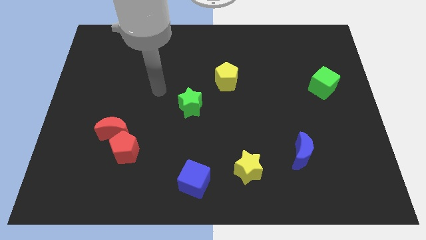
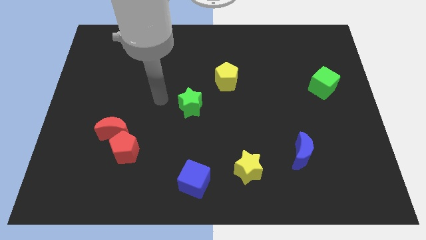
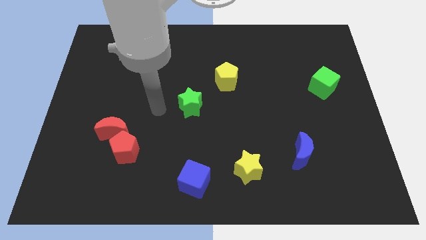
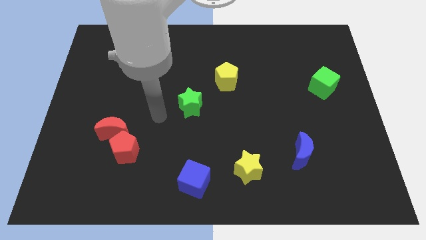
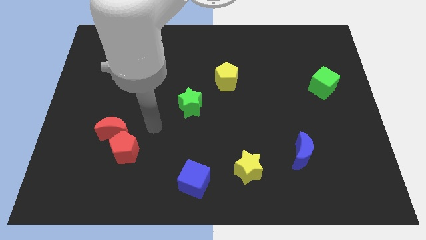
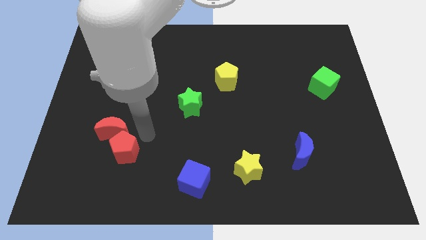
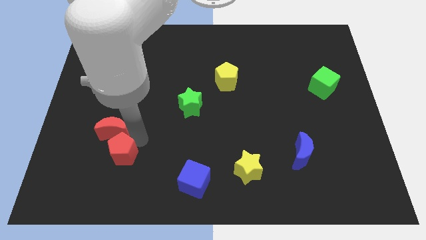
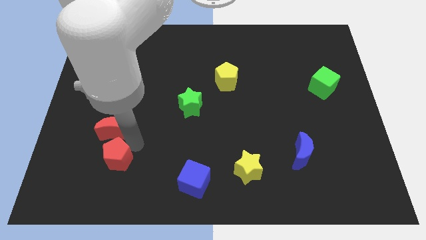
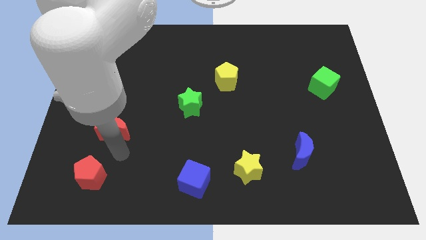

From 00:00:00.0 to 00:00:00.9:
separate the red moon from the red pentagon

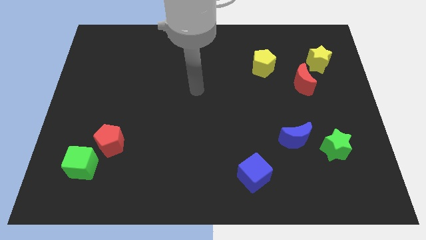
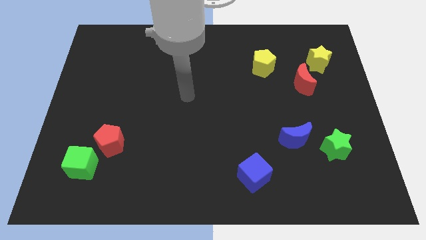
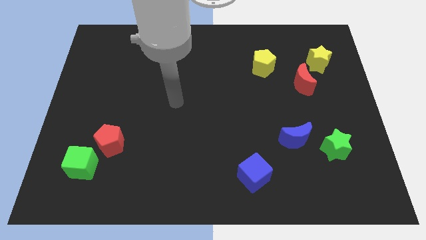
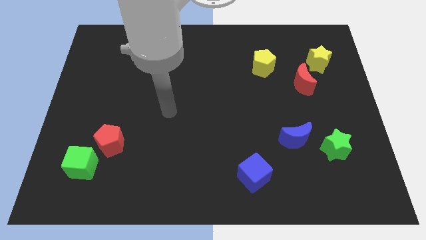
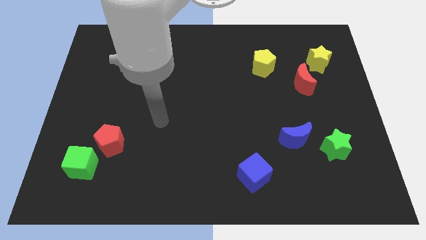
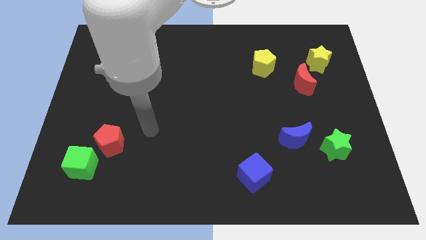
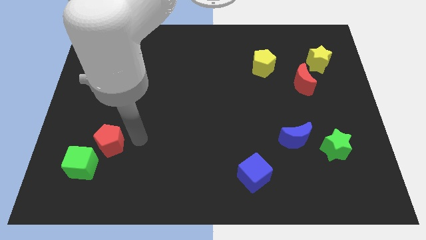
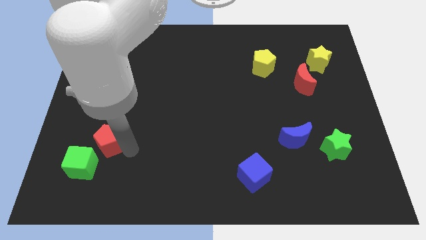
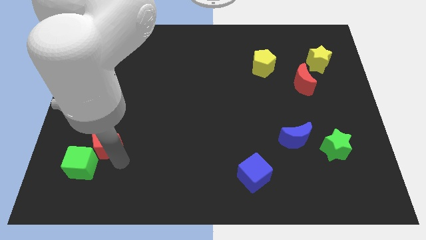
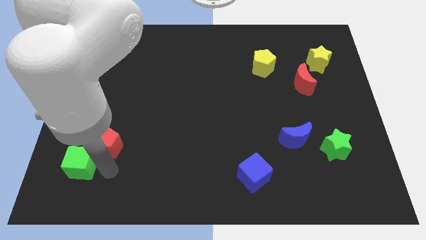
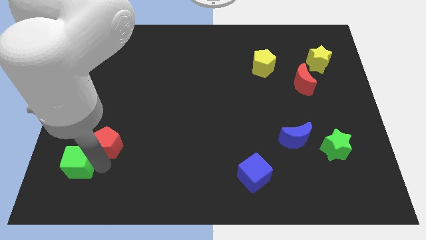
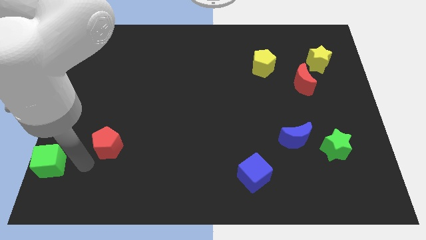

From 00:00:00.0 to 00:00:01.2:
separate the red pentagon from the green cube

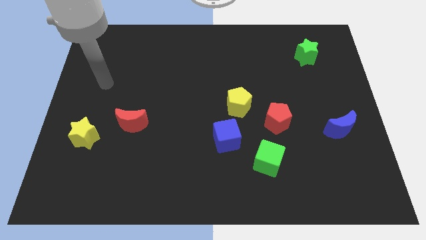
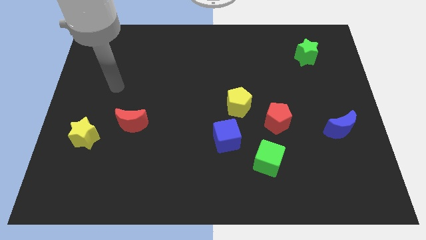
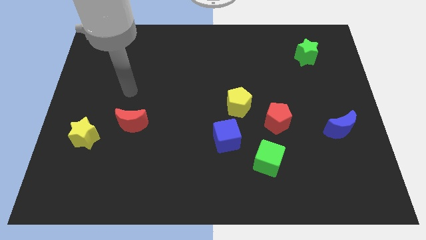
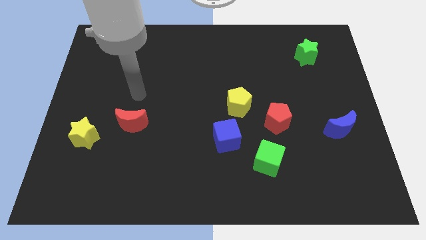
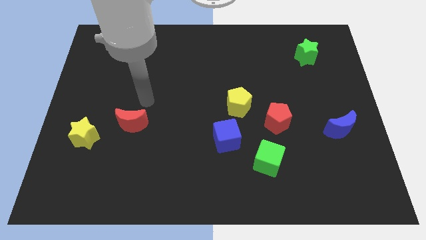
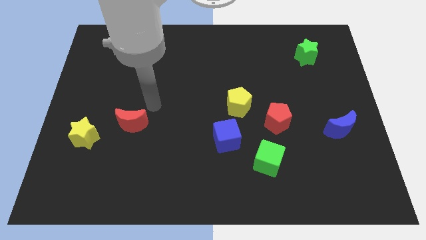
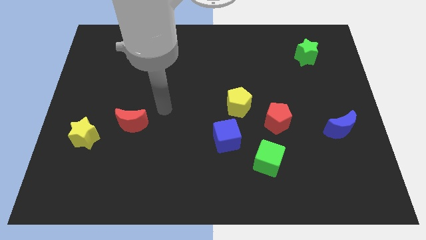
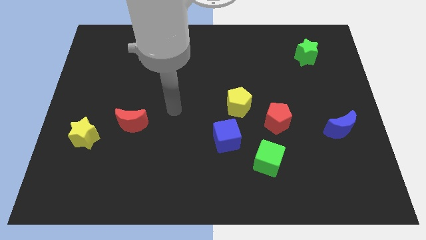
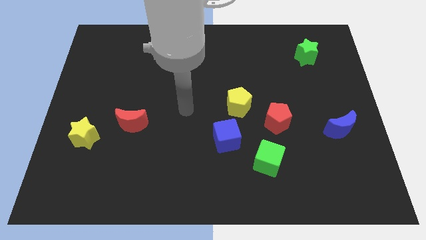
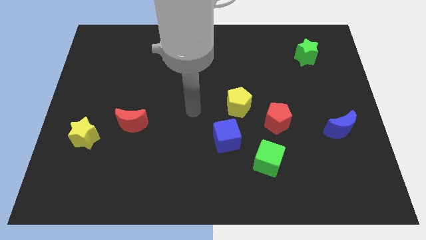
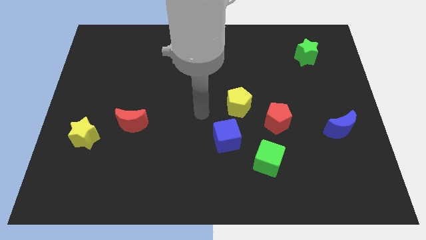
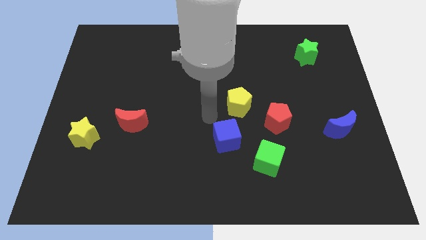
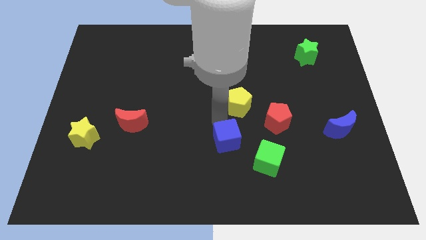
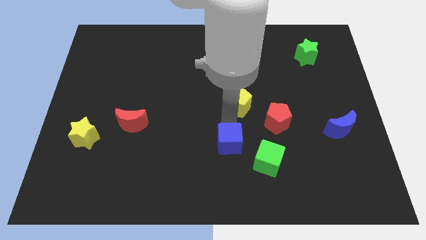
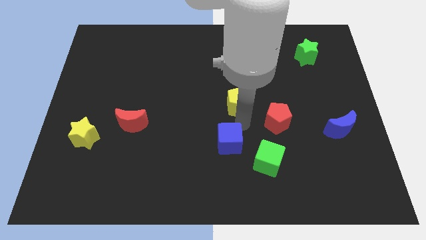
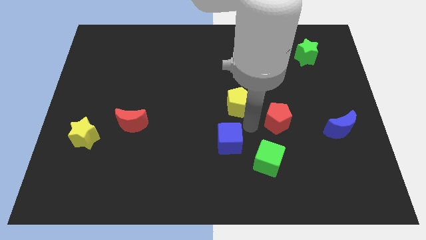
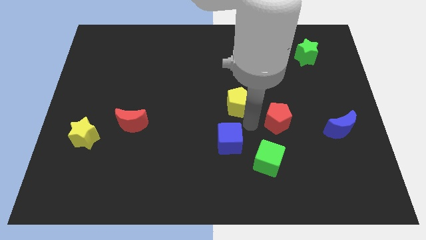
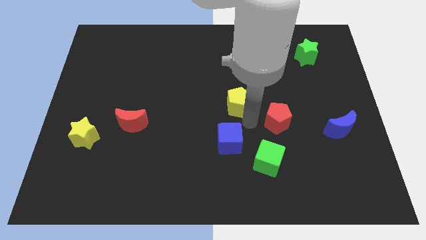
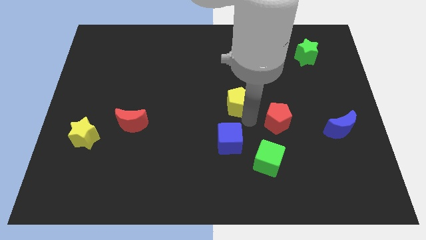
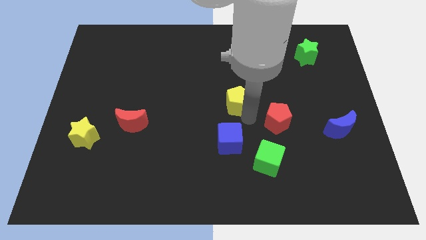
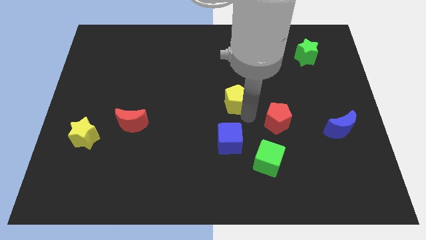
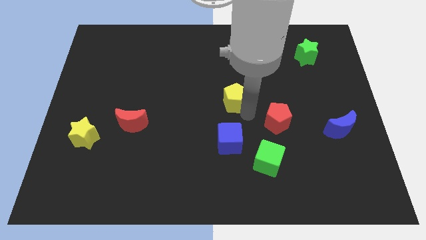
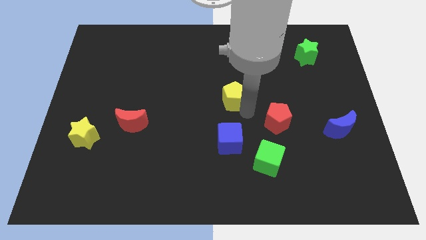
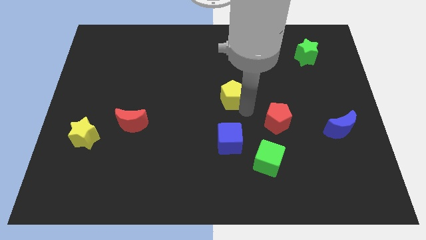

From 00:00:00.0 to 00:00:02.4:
pull the yellow pentagon apart from the blue cube and red pentagon

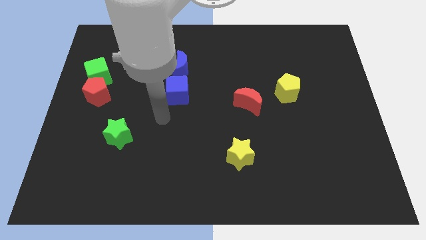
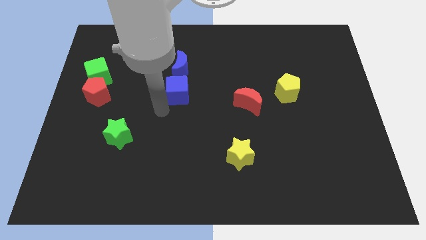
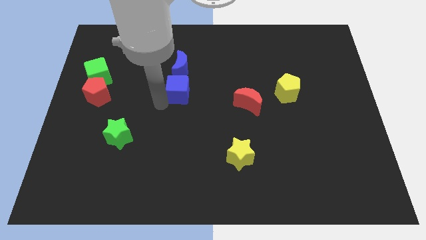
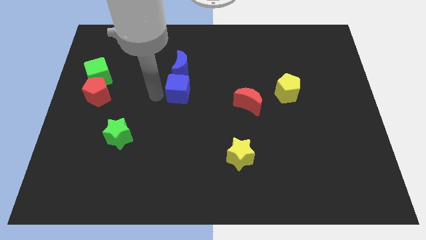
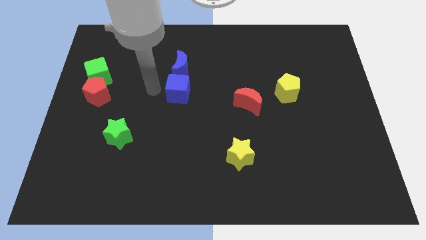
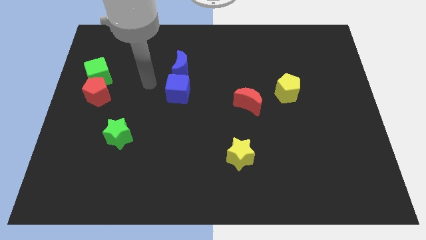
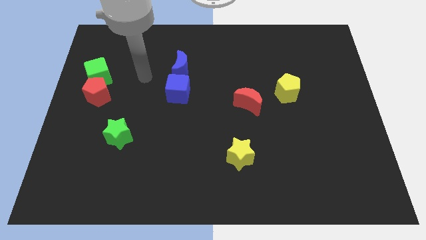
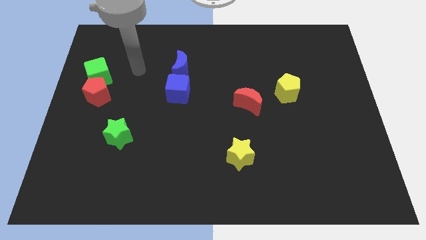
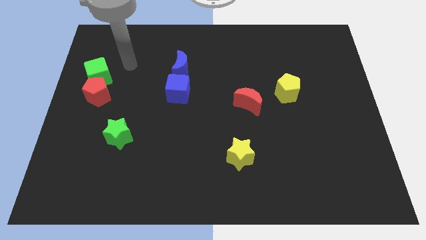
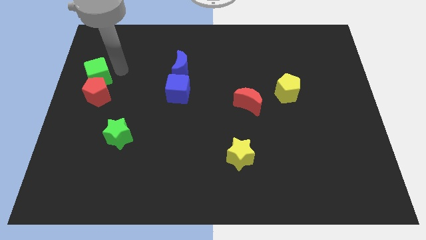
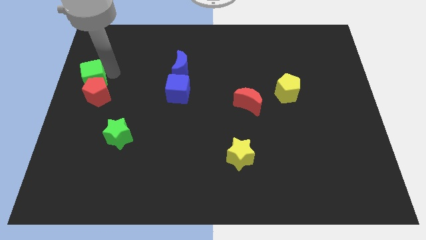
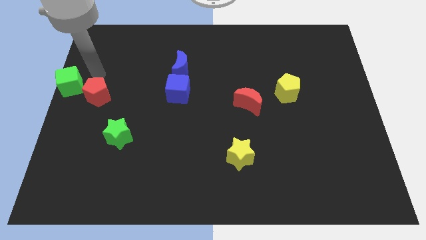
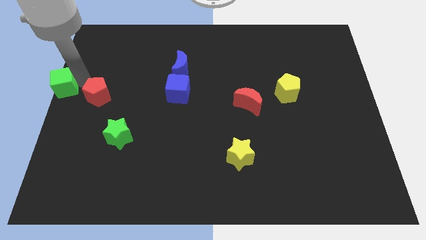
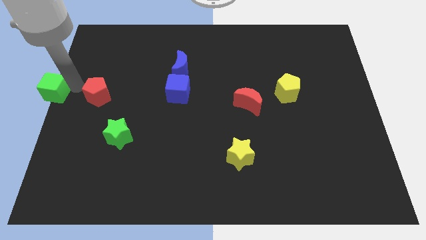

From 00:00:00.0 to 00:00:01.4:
move the red pentagon away from the green cube

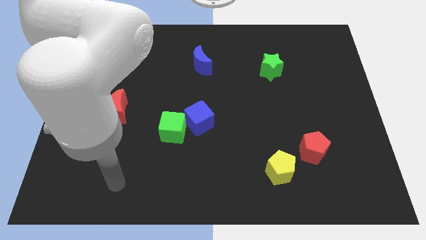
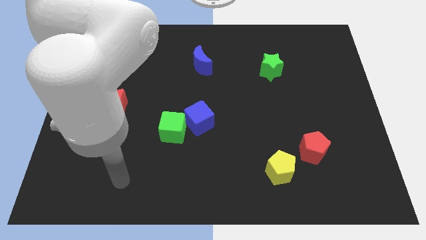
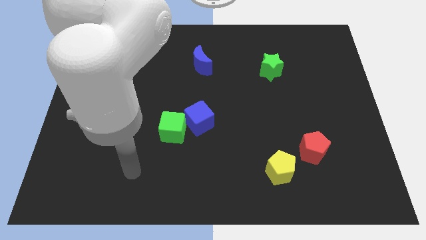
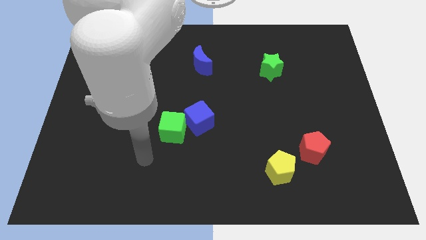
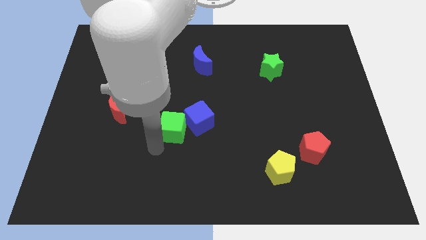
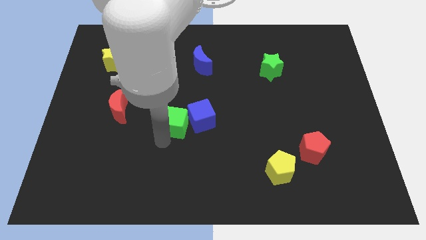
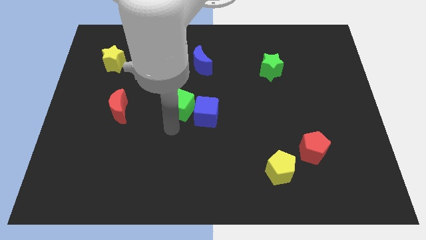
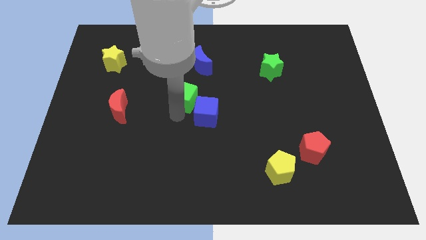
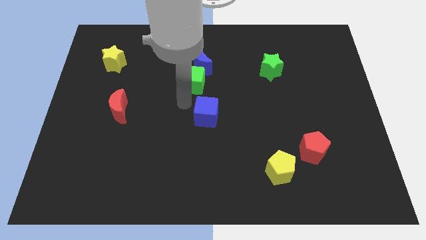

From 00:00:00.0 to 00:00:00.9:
pull the blue cube apart from the green cube

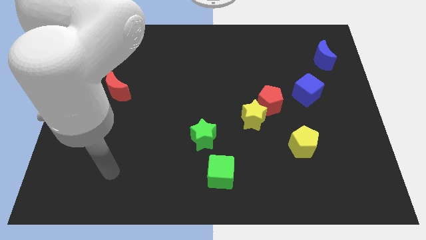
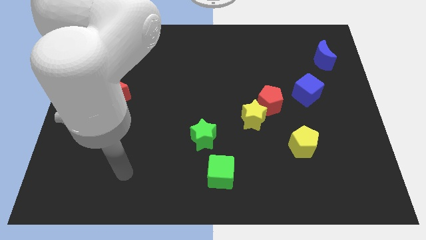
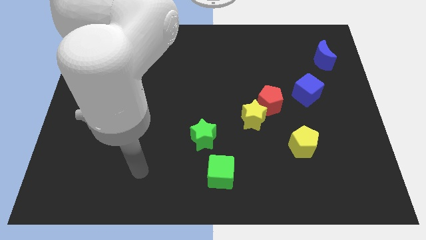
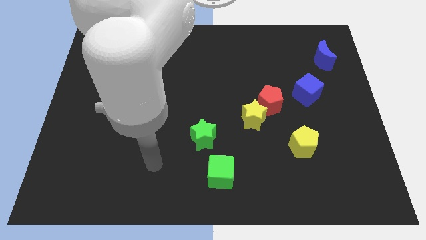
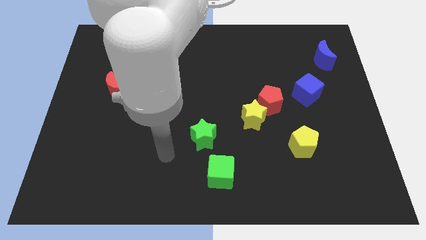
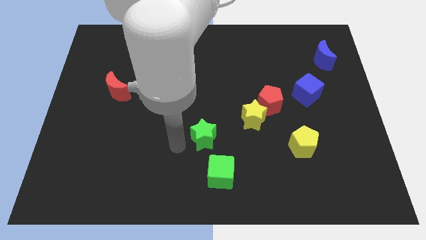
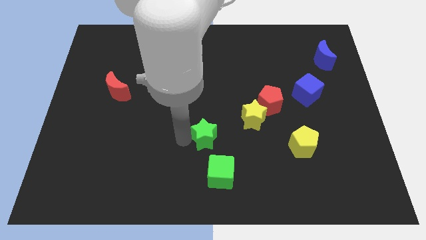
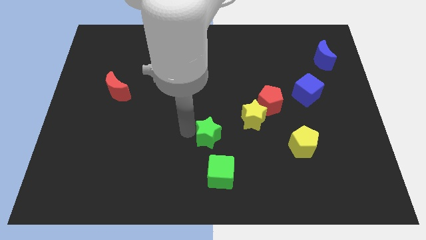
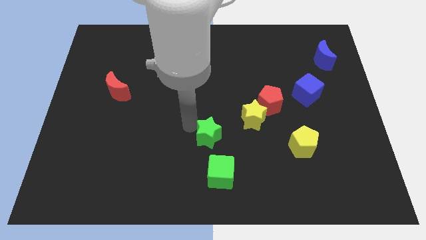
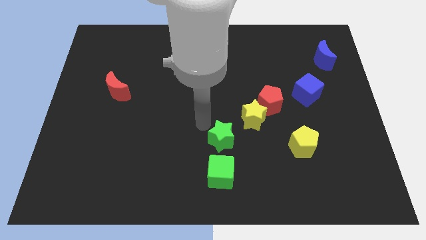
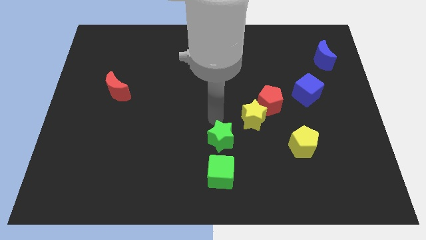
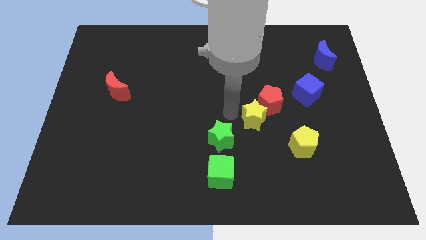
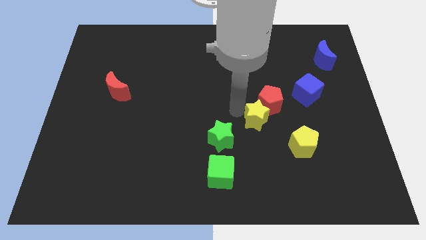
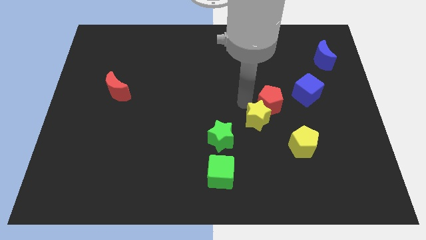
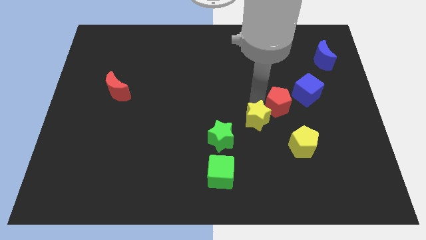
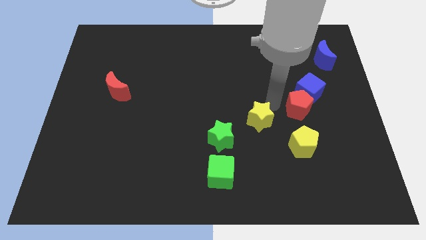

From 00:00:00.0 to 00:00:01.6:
move the yellow star away from the red pentagon

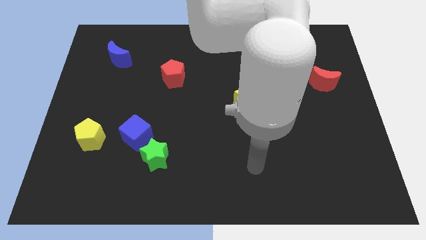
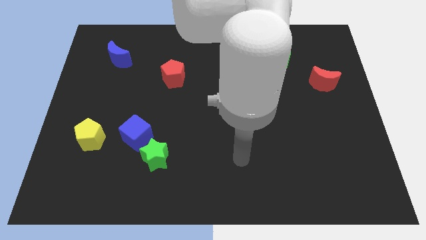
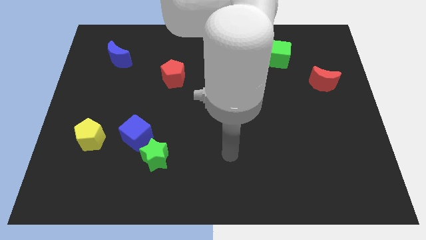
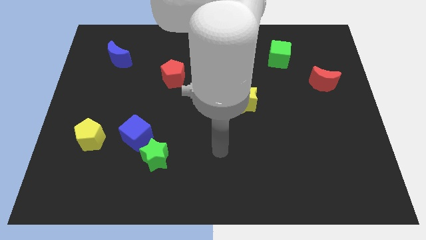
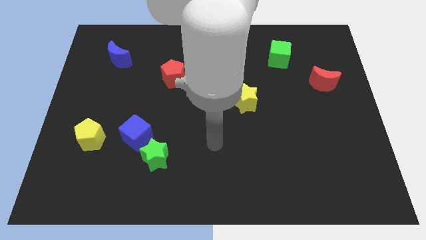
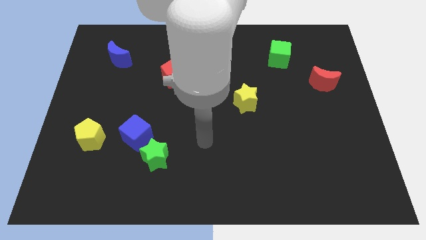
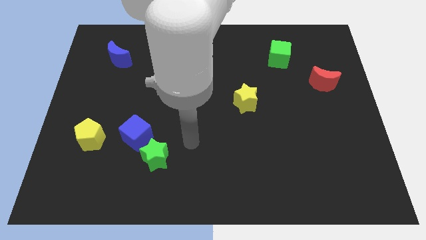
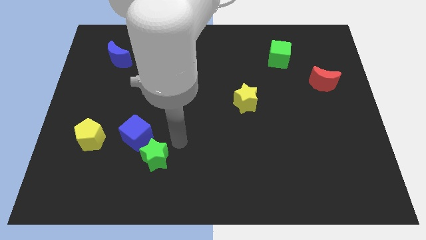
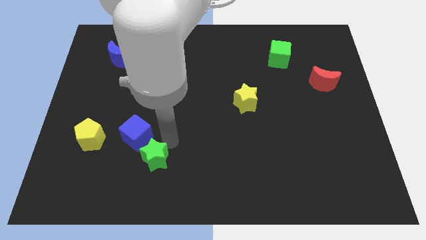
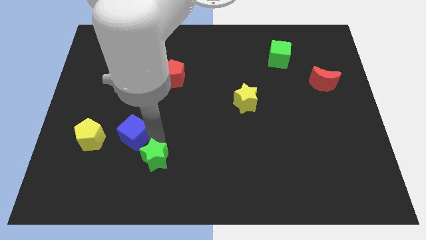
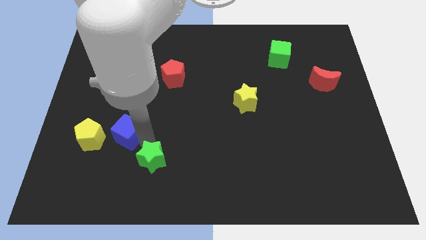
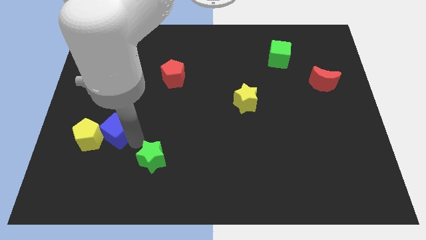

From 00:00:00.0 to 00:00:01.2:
pull the green star apart from the blue cube
